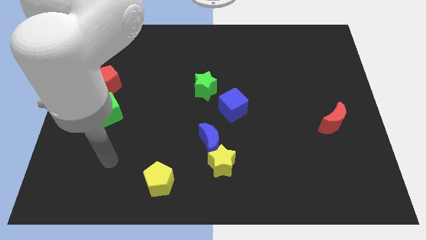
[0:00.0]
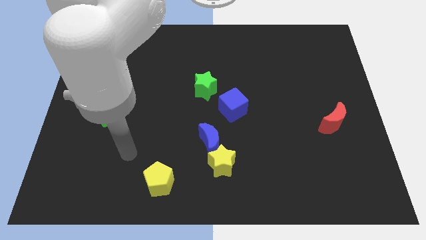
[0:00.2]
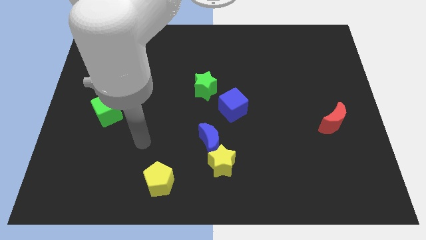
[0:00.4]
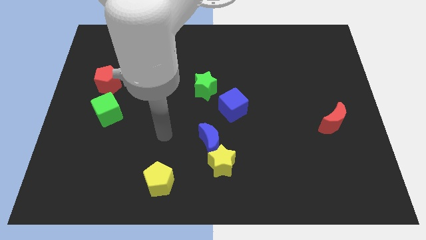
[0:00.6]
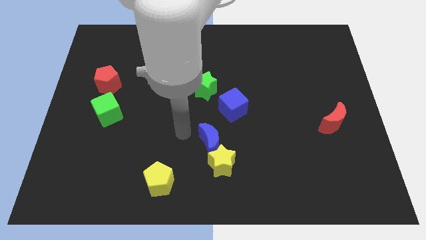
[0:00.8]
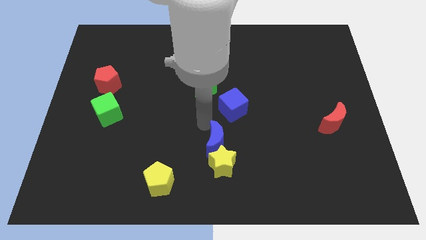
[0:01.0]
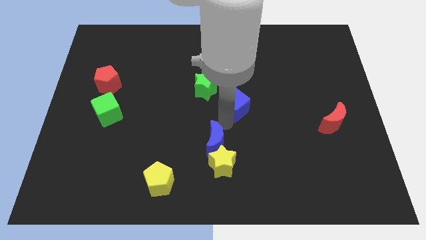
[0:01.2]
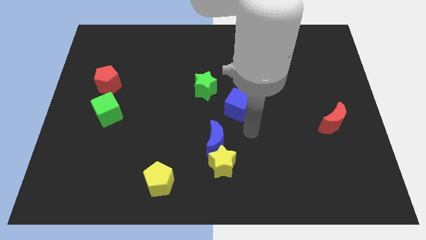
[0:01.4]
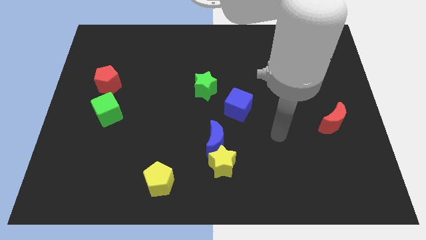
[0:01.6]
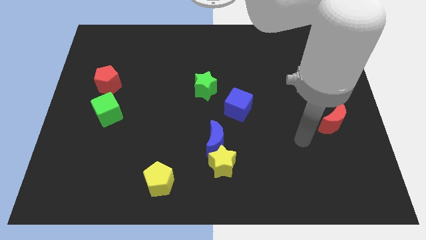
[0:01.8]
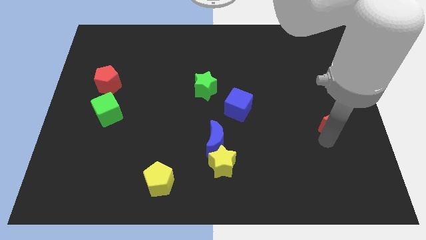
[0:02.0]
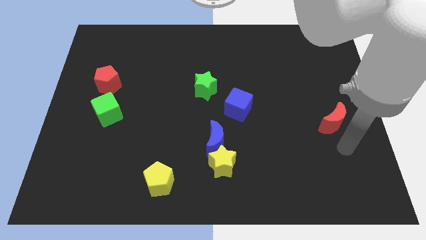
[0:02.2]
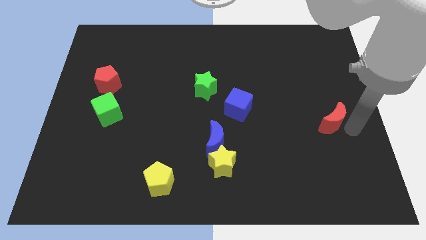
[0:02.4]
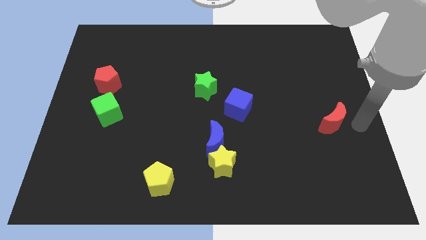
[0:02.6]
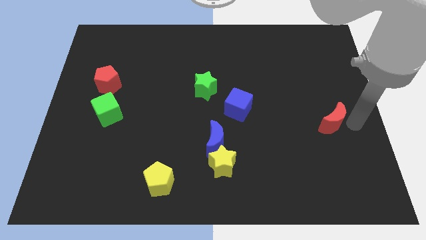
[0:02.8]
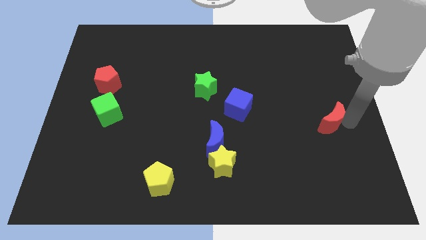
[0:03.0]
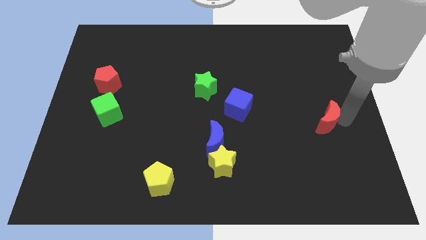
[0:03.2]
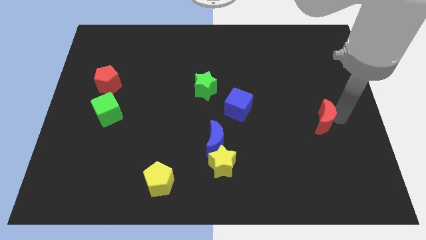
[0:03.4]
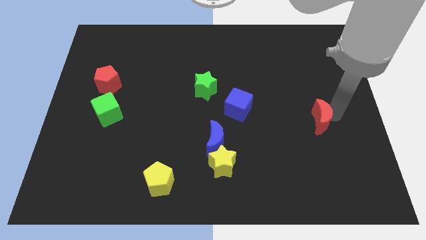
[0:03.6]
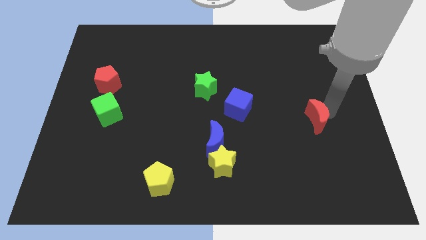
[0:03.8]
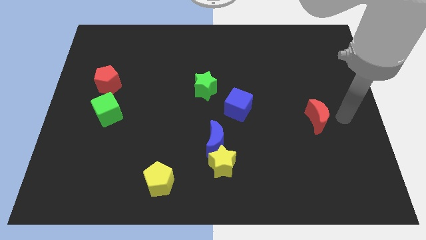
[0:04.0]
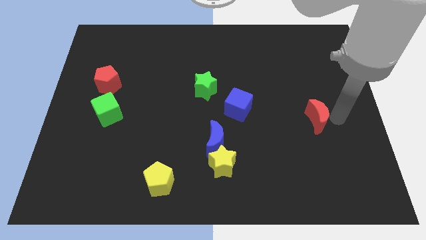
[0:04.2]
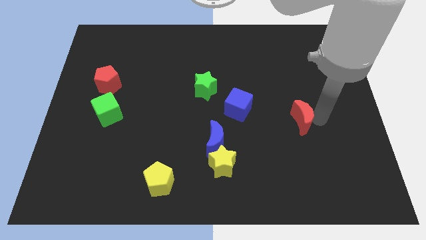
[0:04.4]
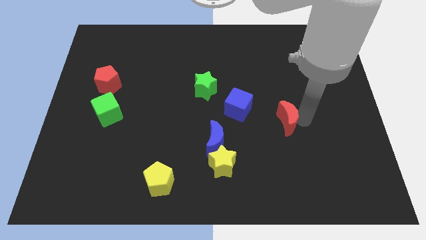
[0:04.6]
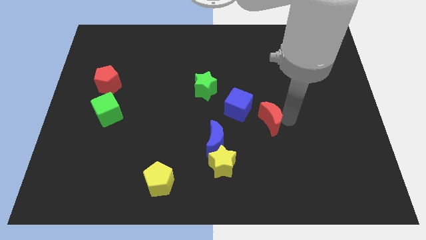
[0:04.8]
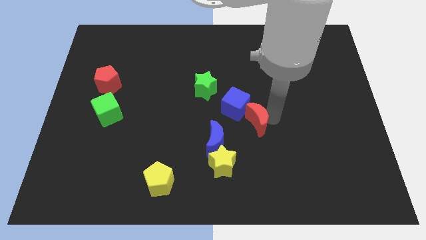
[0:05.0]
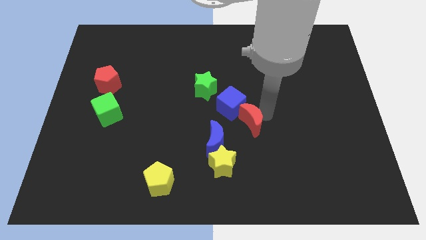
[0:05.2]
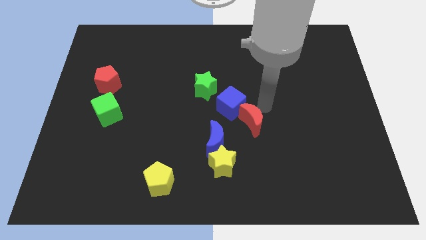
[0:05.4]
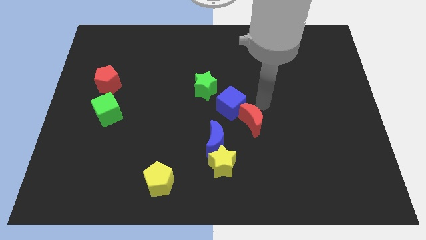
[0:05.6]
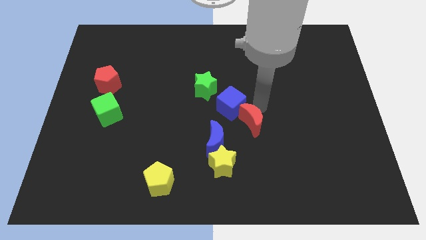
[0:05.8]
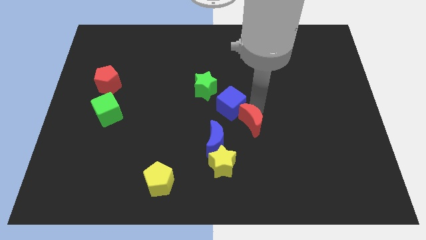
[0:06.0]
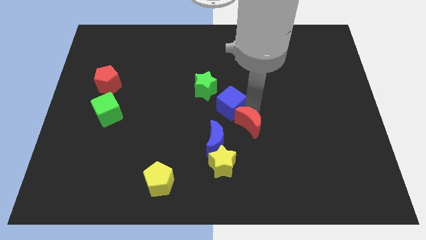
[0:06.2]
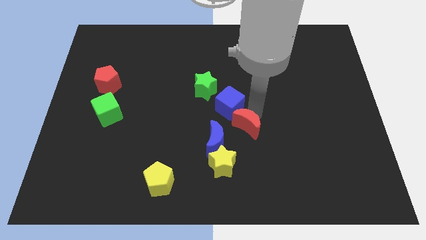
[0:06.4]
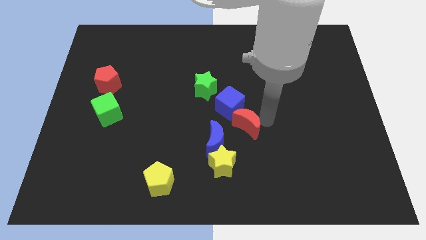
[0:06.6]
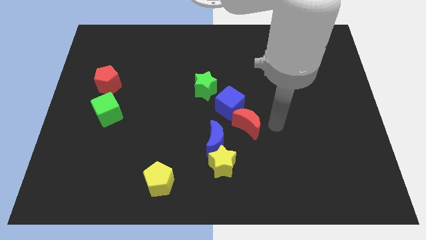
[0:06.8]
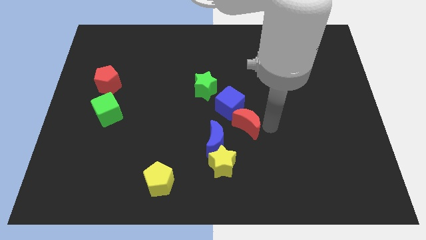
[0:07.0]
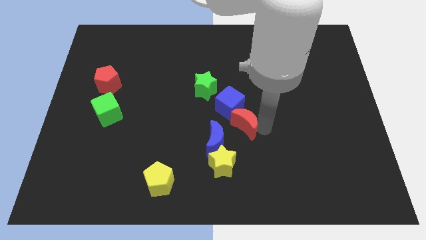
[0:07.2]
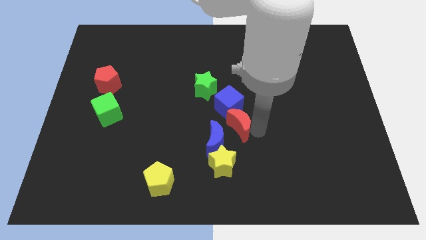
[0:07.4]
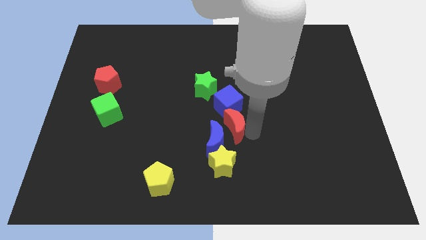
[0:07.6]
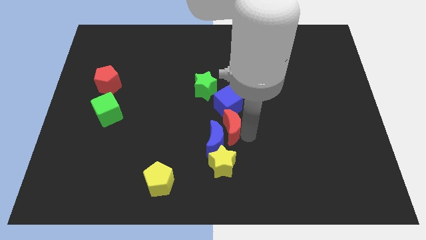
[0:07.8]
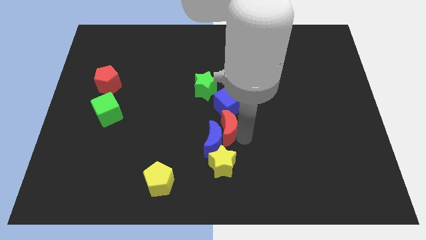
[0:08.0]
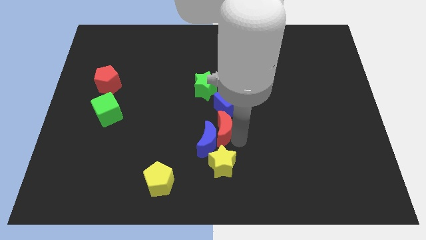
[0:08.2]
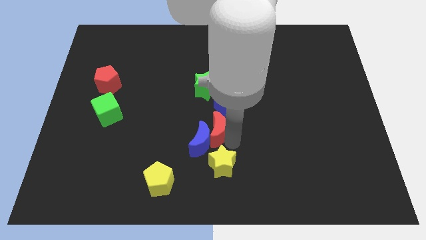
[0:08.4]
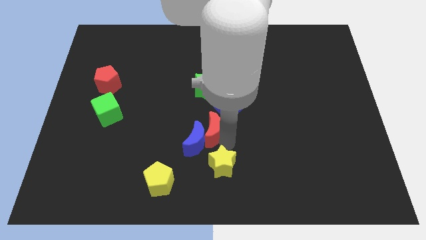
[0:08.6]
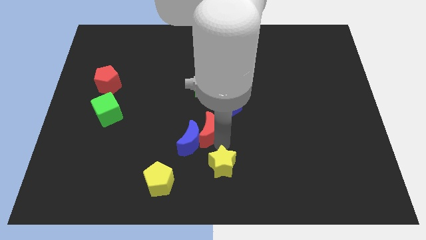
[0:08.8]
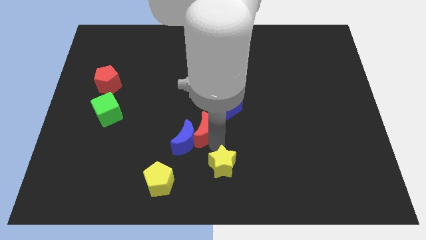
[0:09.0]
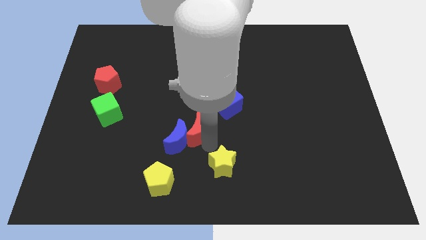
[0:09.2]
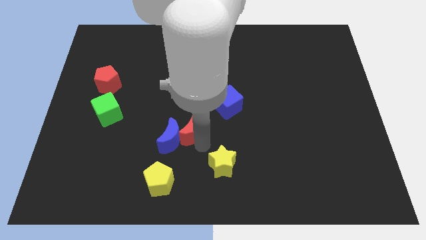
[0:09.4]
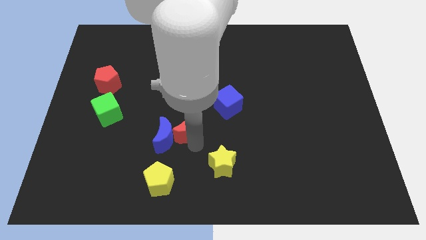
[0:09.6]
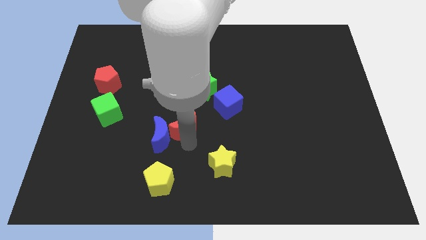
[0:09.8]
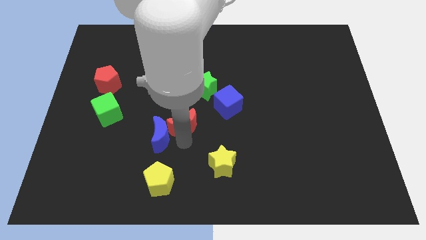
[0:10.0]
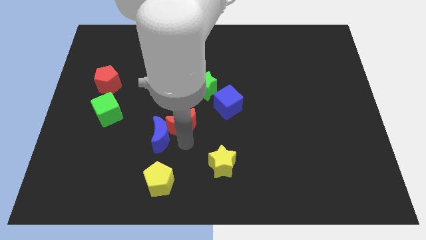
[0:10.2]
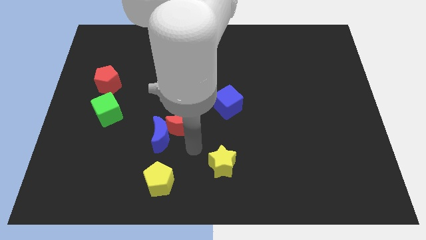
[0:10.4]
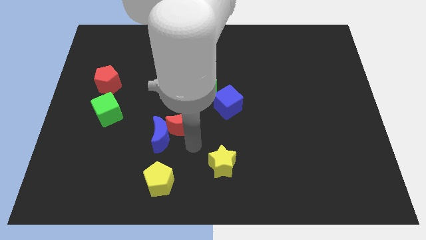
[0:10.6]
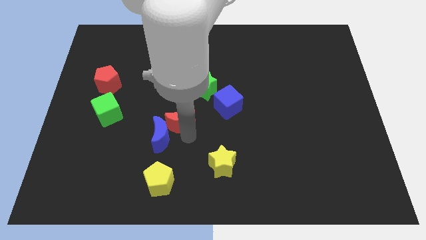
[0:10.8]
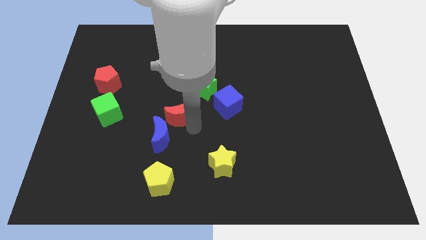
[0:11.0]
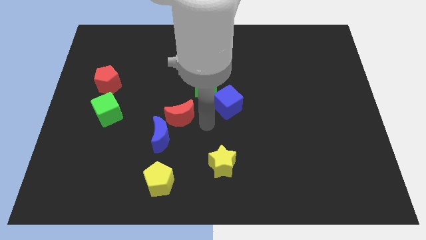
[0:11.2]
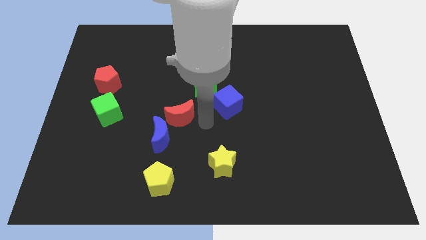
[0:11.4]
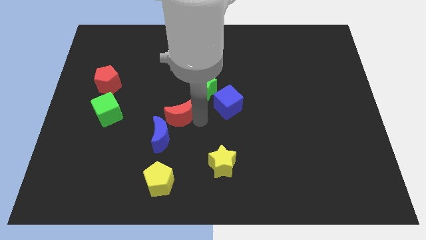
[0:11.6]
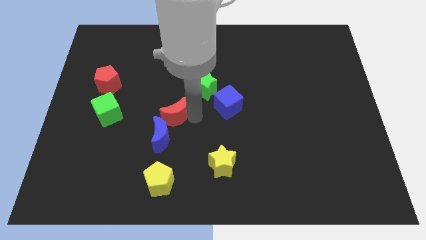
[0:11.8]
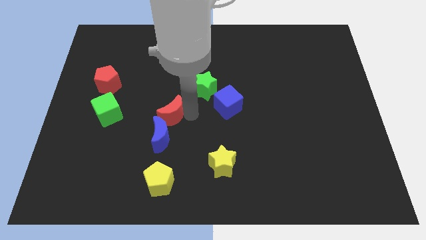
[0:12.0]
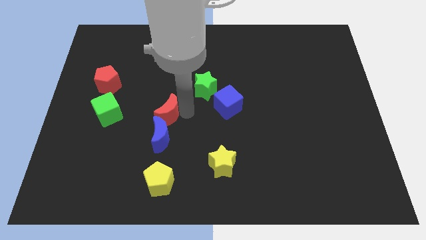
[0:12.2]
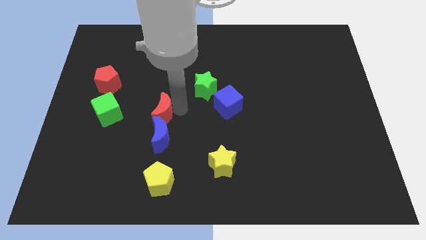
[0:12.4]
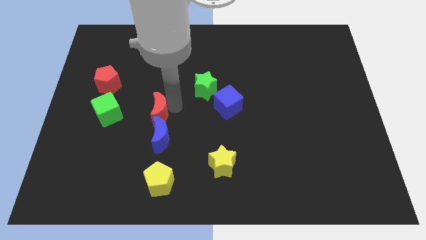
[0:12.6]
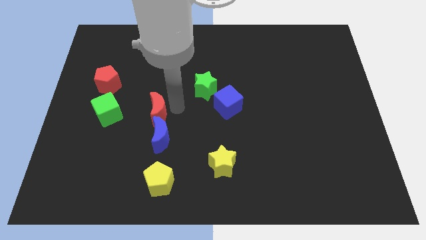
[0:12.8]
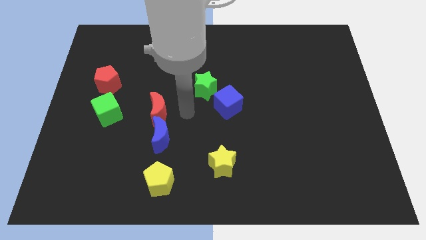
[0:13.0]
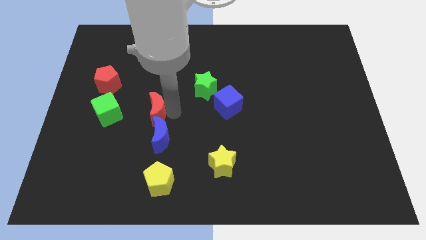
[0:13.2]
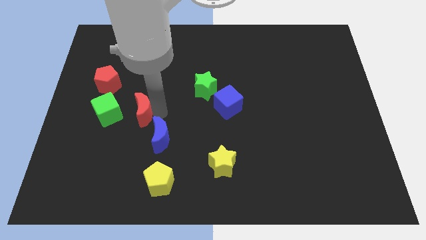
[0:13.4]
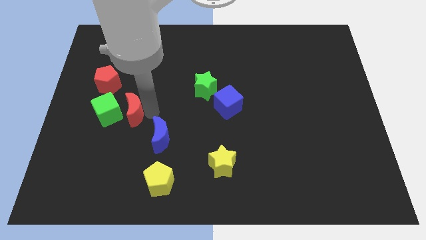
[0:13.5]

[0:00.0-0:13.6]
put the red moon next to the green cube

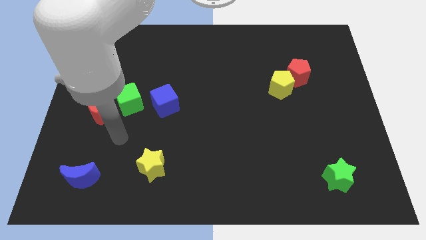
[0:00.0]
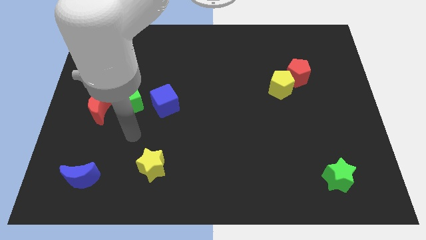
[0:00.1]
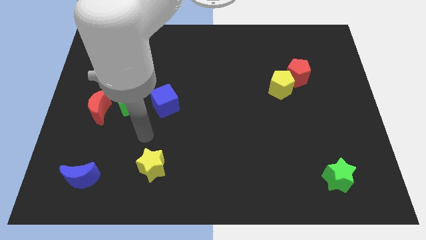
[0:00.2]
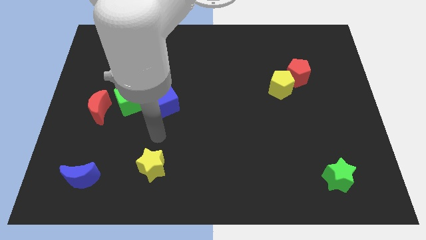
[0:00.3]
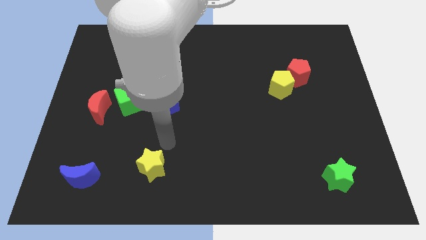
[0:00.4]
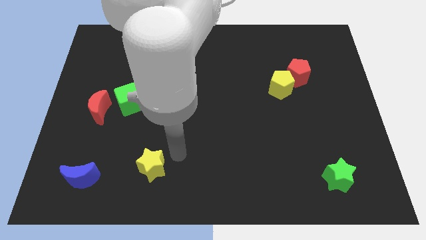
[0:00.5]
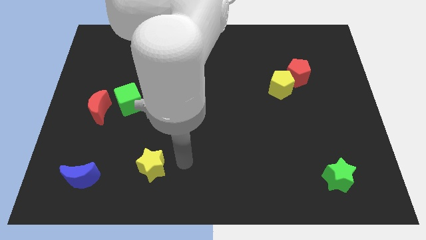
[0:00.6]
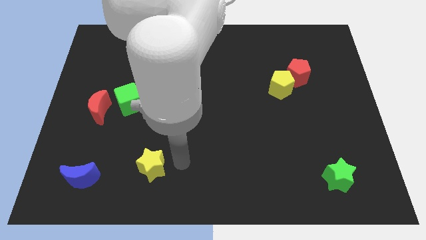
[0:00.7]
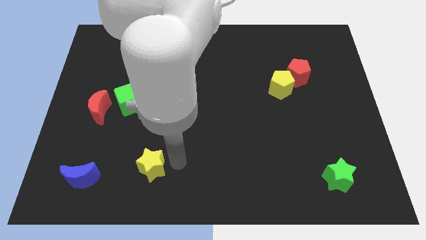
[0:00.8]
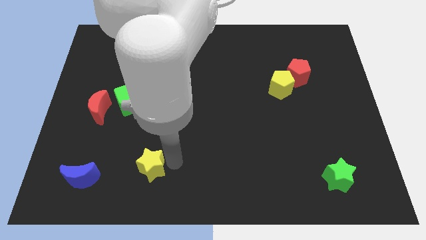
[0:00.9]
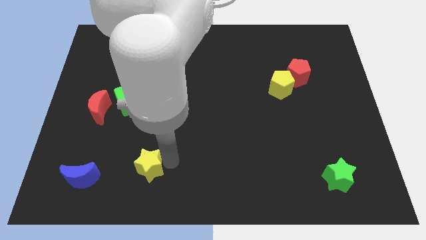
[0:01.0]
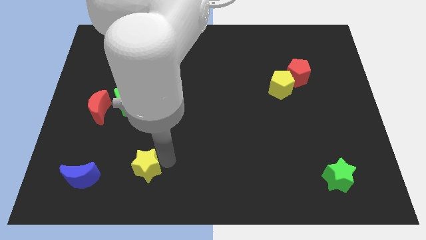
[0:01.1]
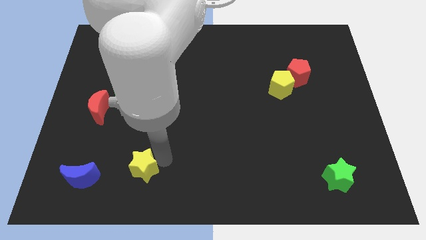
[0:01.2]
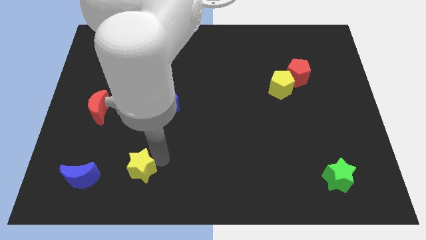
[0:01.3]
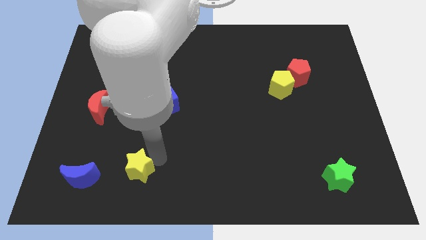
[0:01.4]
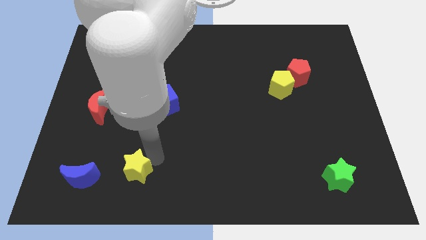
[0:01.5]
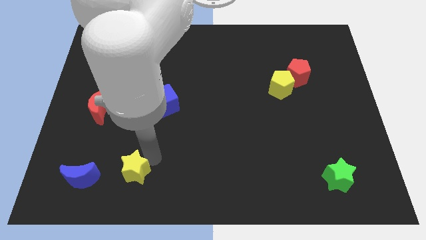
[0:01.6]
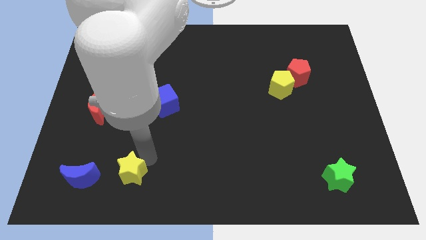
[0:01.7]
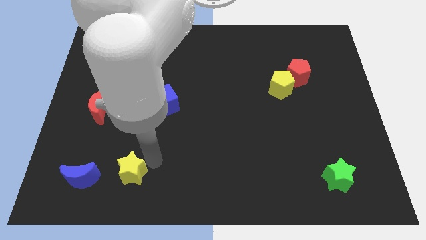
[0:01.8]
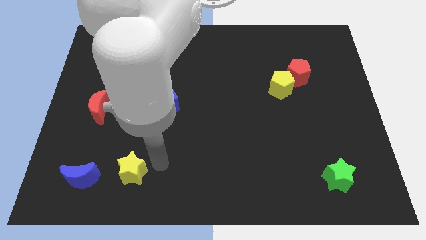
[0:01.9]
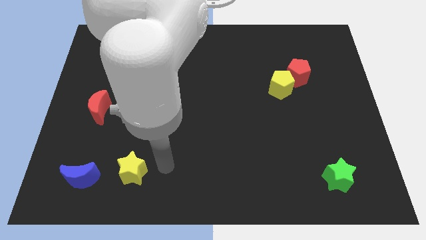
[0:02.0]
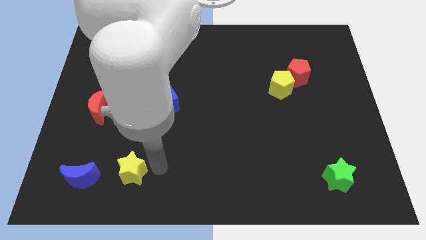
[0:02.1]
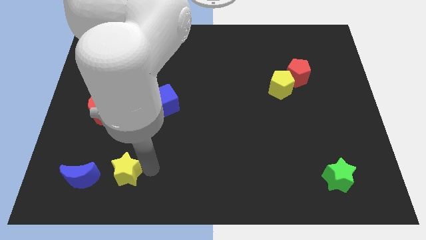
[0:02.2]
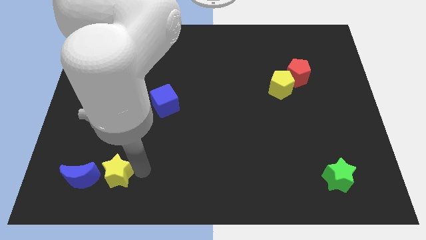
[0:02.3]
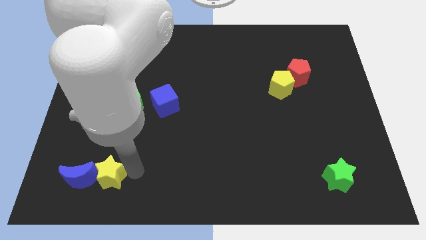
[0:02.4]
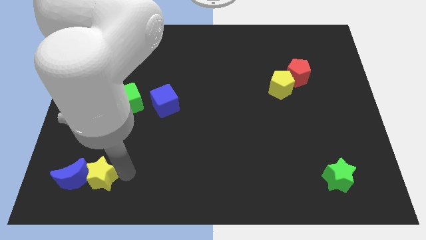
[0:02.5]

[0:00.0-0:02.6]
put the yellow star next to the blue moon
